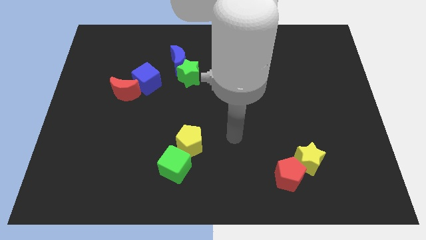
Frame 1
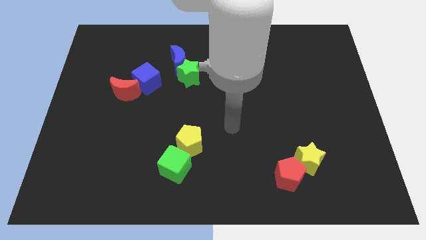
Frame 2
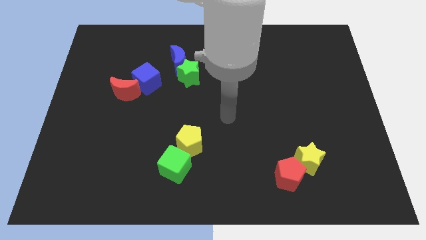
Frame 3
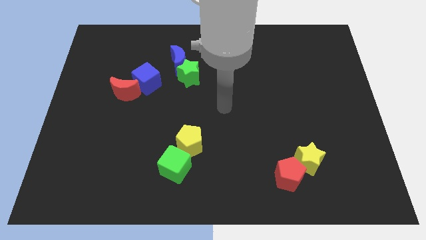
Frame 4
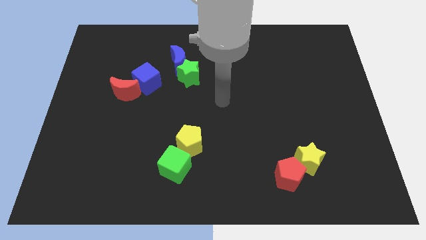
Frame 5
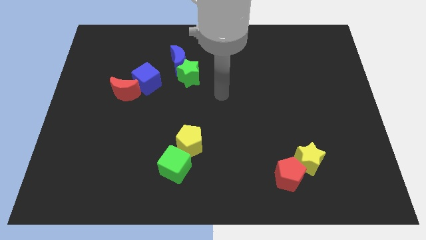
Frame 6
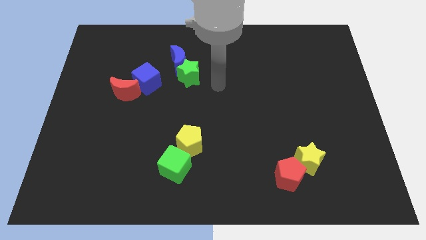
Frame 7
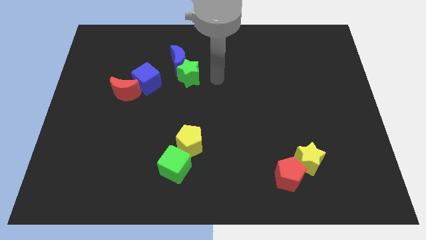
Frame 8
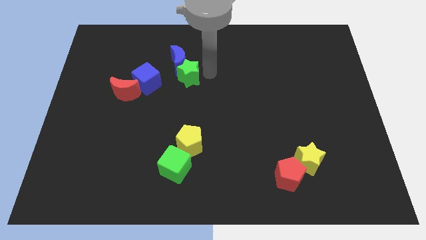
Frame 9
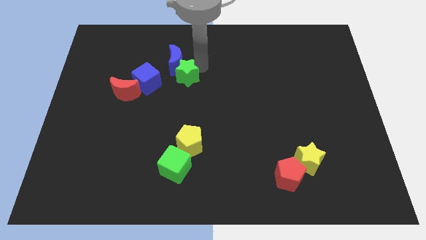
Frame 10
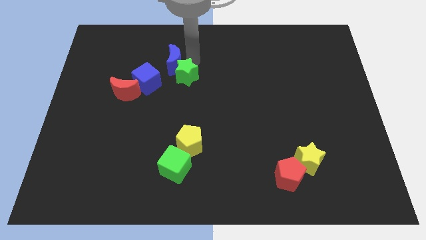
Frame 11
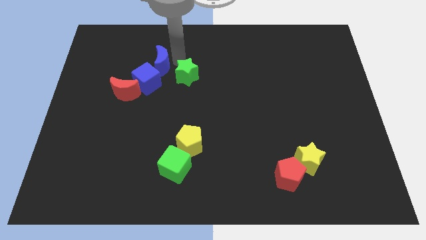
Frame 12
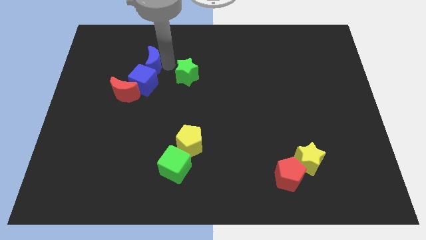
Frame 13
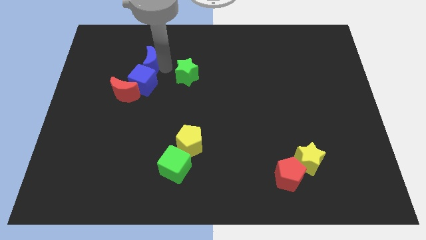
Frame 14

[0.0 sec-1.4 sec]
separate the green star from the blue moon

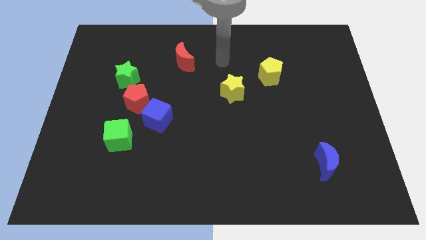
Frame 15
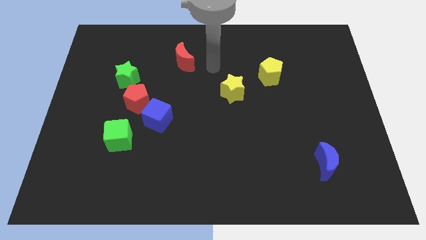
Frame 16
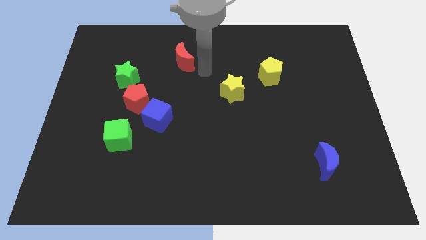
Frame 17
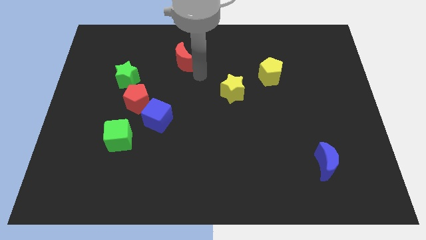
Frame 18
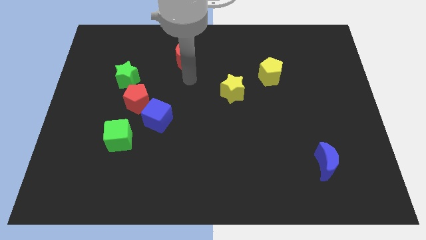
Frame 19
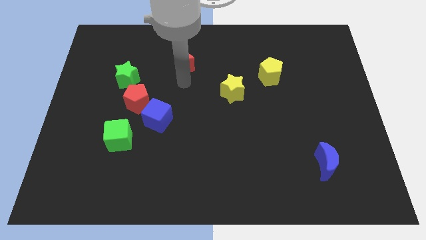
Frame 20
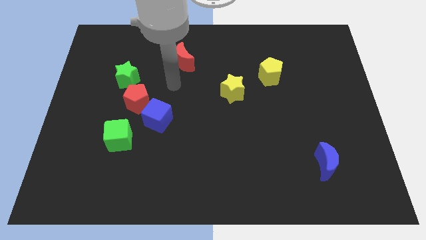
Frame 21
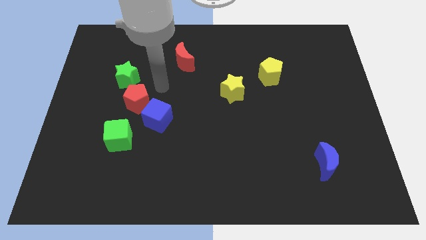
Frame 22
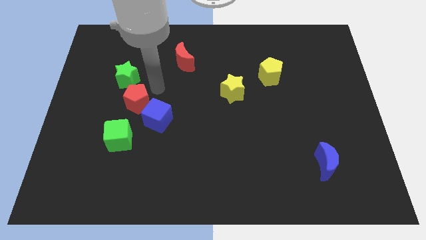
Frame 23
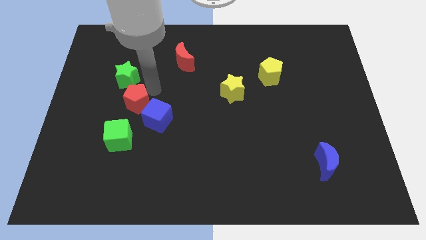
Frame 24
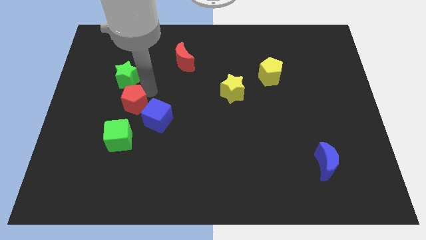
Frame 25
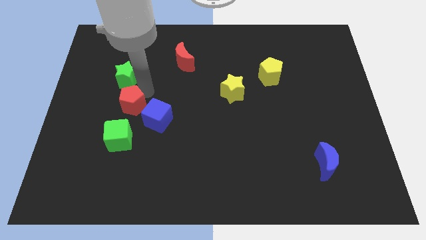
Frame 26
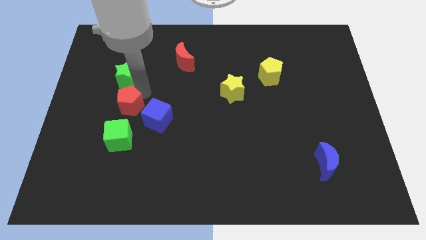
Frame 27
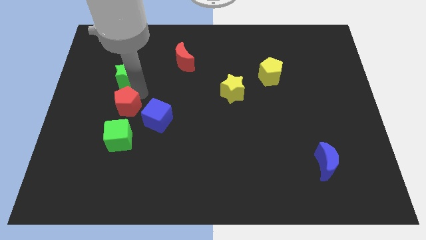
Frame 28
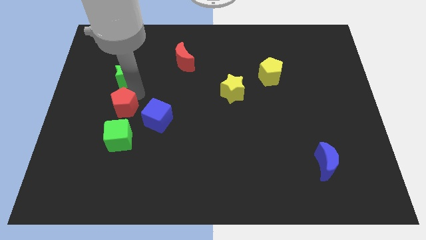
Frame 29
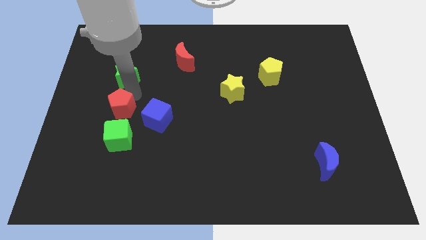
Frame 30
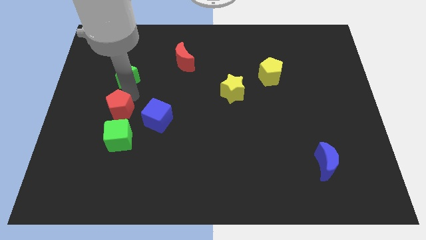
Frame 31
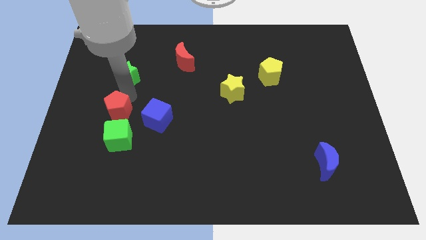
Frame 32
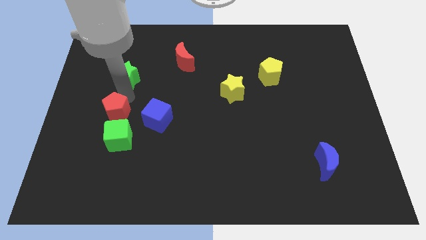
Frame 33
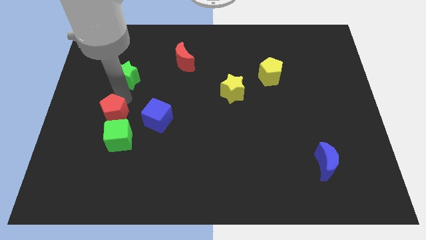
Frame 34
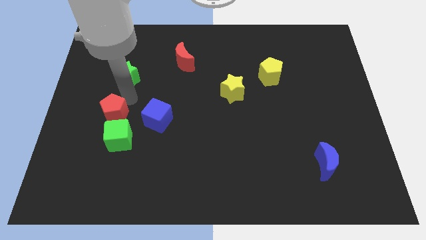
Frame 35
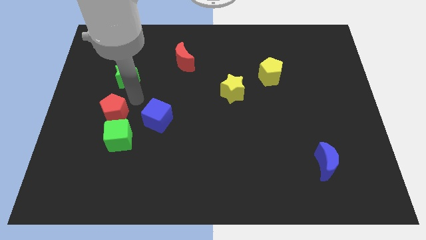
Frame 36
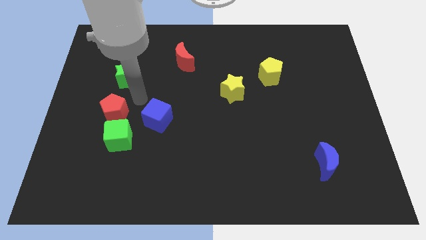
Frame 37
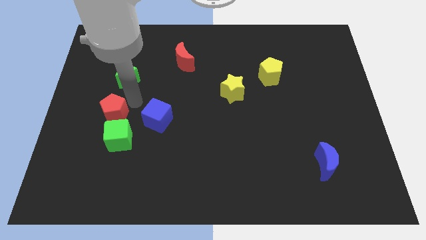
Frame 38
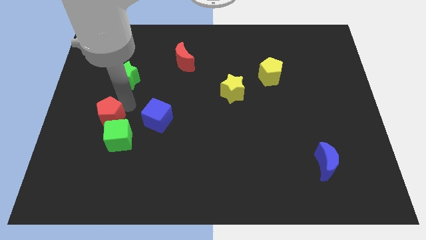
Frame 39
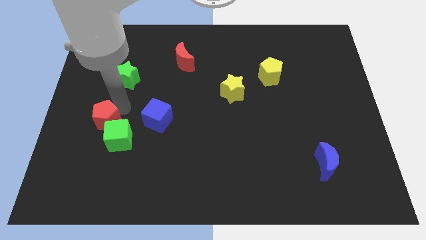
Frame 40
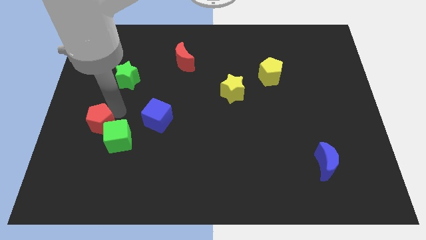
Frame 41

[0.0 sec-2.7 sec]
move the red pentagon away from the blue cube and green star

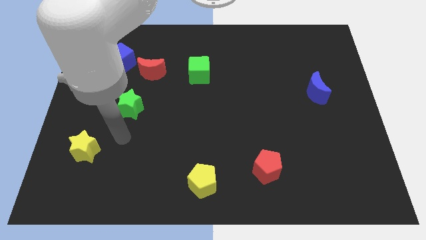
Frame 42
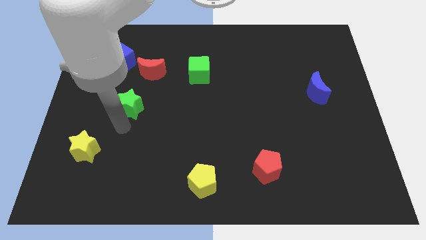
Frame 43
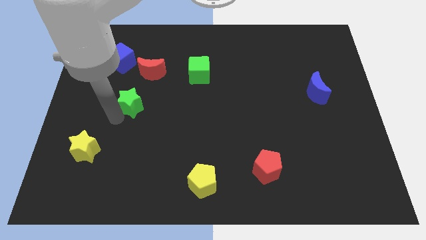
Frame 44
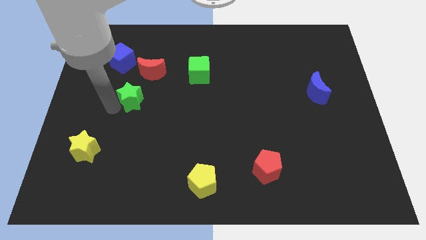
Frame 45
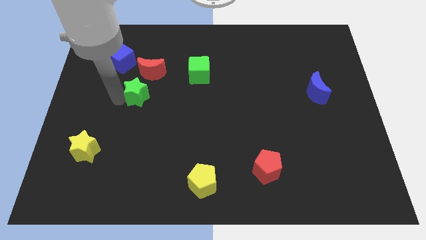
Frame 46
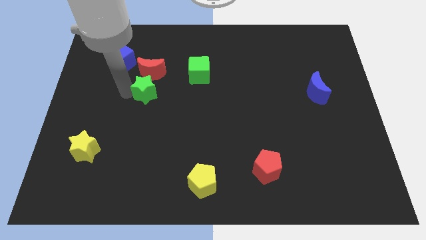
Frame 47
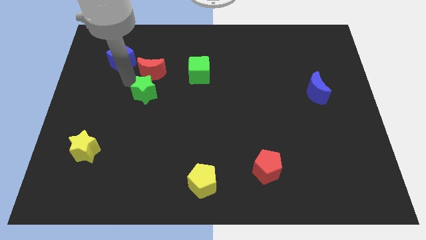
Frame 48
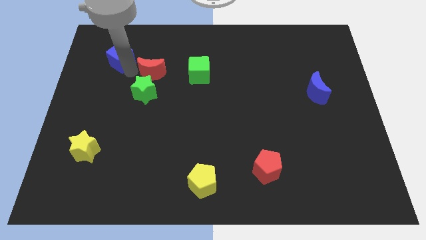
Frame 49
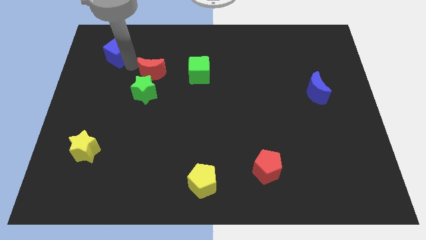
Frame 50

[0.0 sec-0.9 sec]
pull the red moon apart from the blue cube

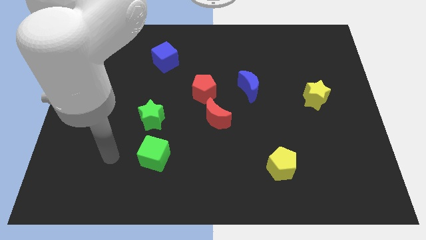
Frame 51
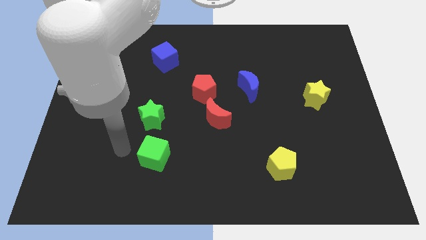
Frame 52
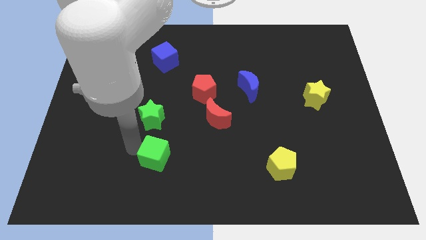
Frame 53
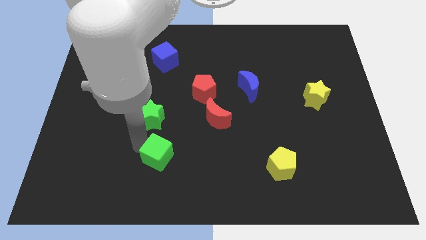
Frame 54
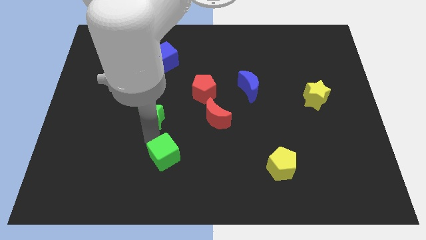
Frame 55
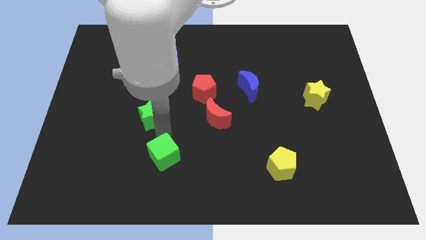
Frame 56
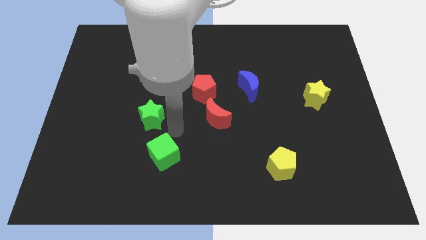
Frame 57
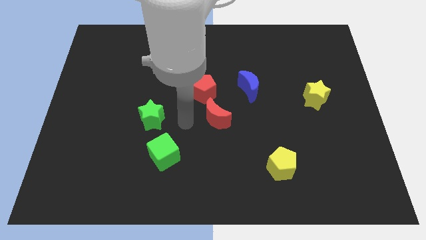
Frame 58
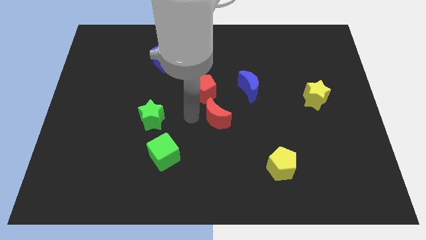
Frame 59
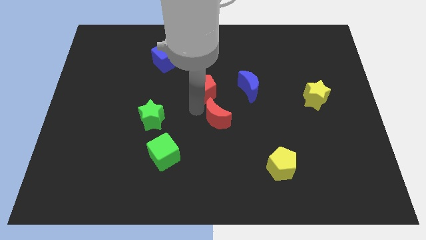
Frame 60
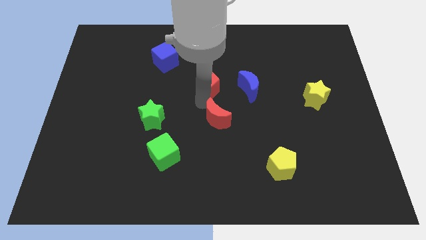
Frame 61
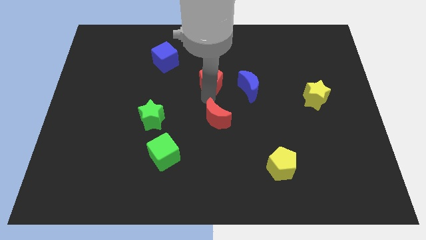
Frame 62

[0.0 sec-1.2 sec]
pull the red moon apart from the red pentagon

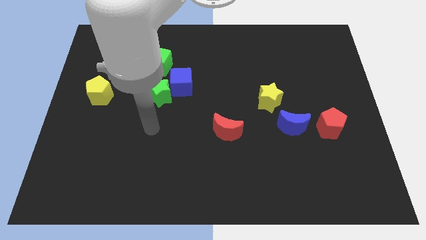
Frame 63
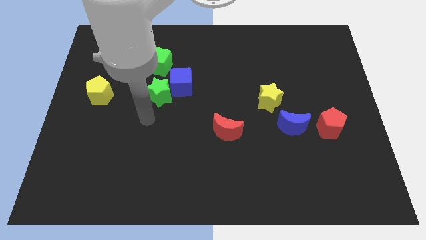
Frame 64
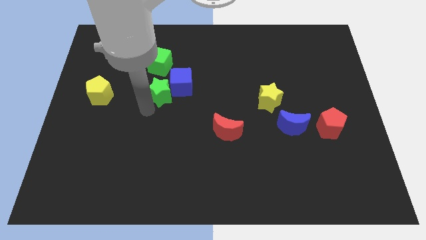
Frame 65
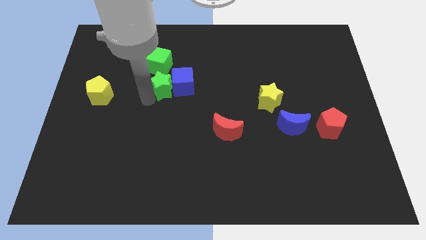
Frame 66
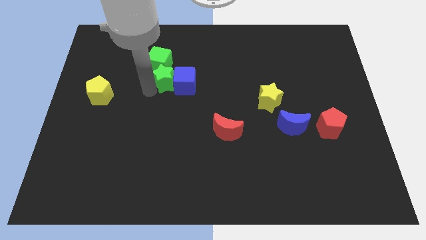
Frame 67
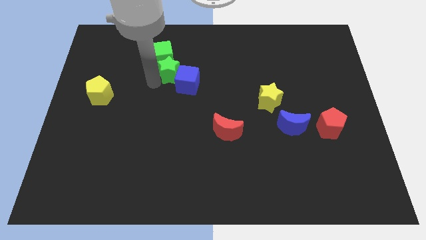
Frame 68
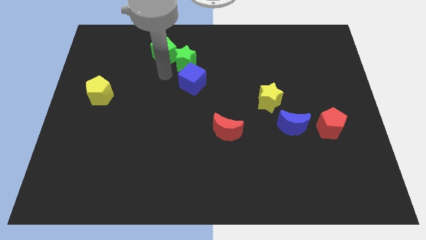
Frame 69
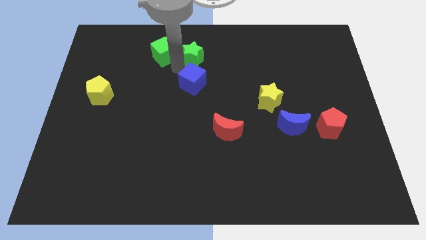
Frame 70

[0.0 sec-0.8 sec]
move the blue cube away from the green star and green cube

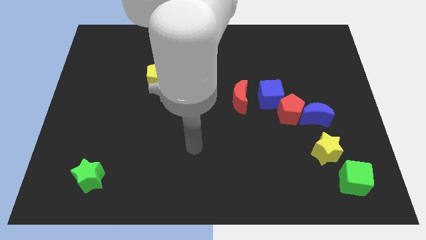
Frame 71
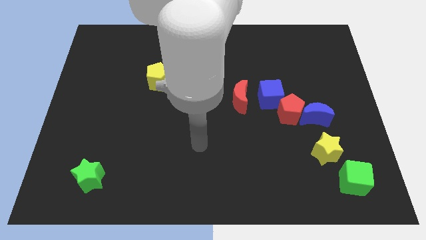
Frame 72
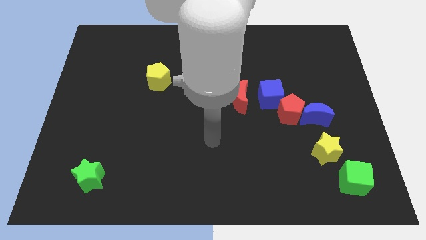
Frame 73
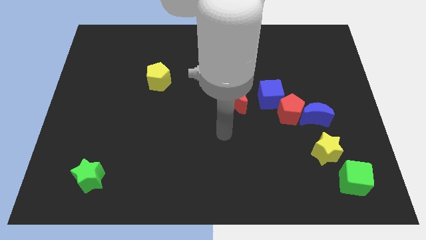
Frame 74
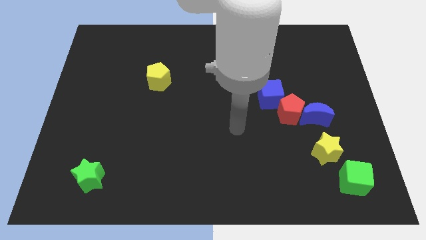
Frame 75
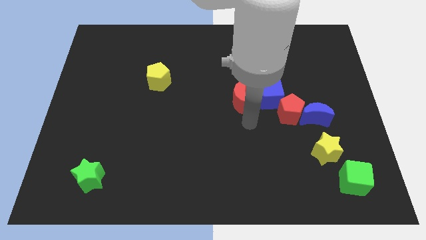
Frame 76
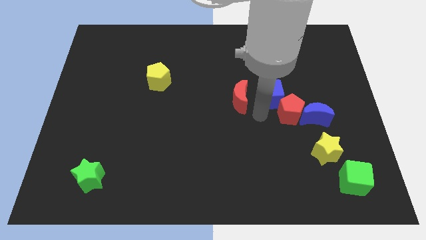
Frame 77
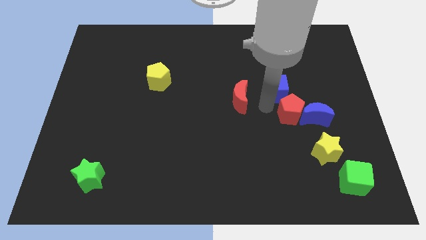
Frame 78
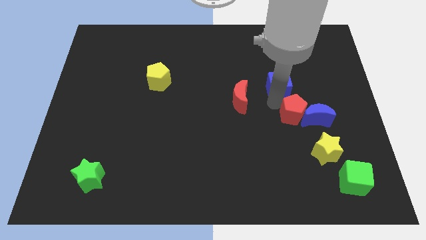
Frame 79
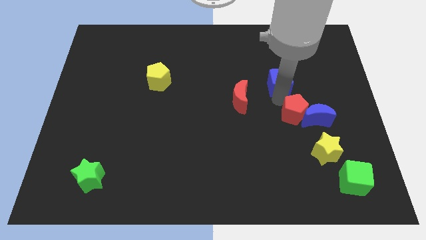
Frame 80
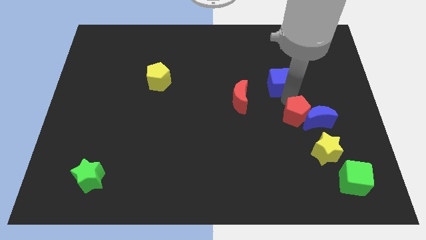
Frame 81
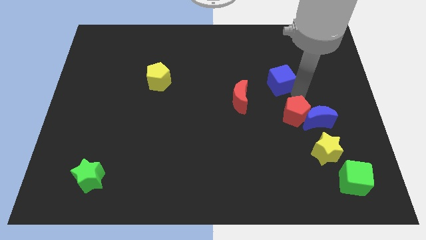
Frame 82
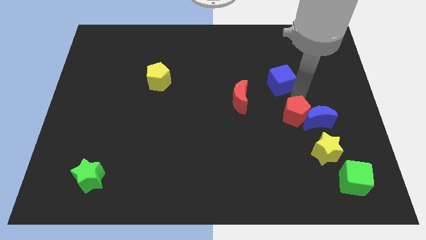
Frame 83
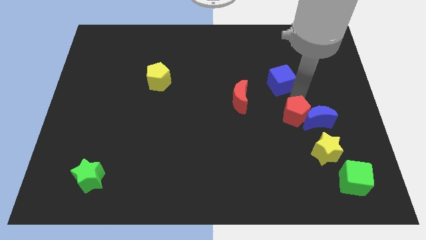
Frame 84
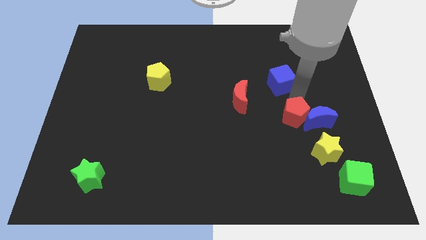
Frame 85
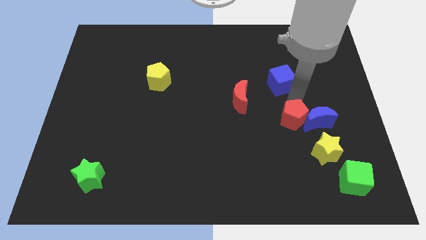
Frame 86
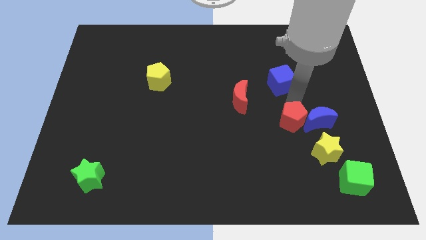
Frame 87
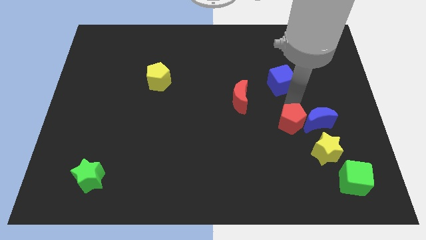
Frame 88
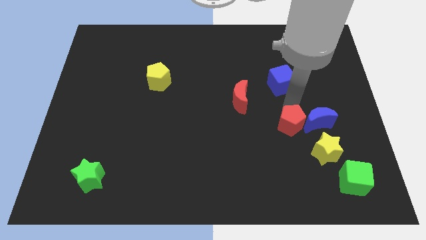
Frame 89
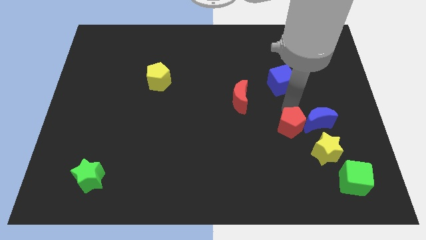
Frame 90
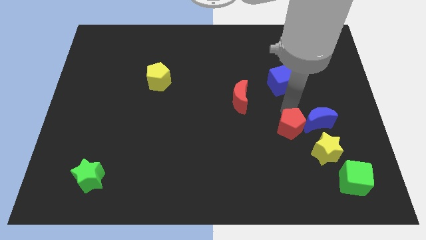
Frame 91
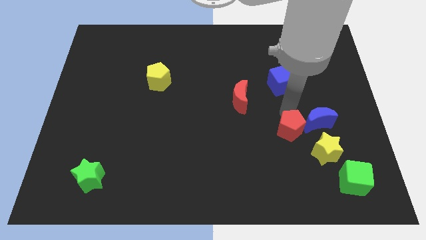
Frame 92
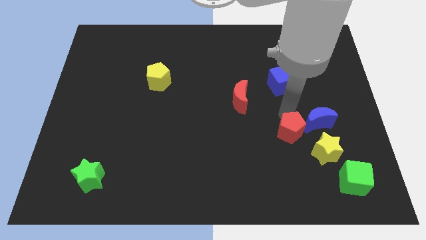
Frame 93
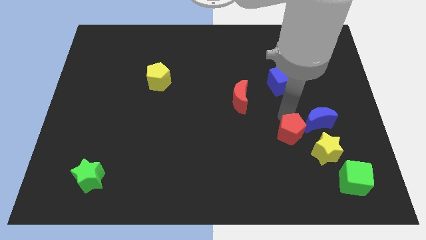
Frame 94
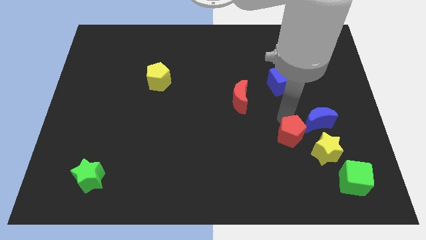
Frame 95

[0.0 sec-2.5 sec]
move the red pentagon away from the blue moon and blue cube
